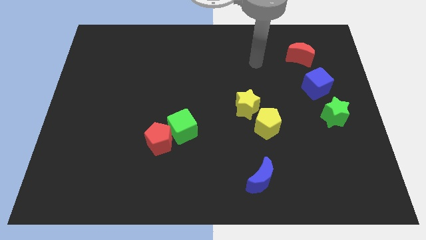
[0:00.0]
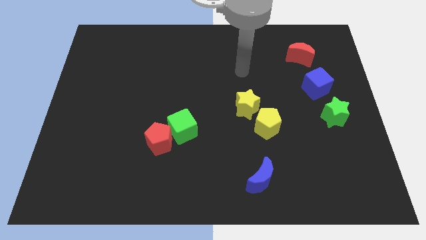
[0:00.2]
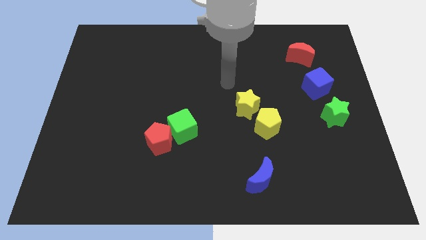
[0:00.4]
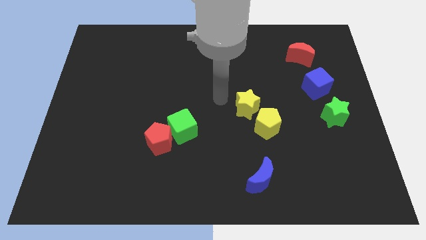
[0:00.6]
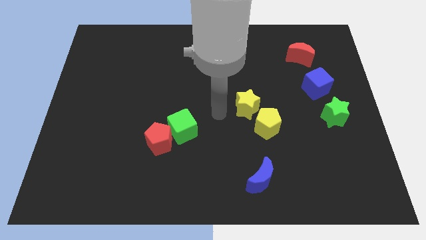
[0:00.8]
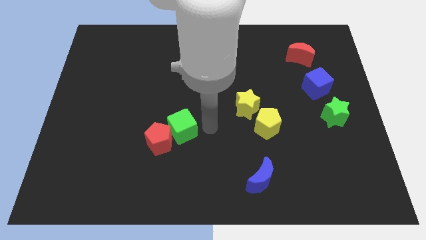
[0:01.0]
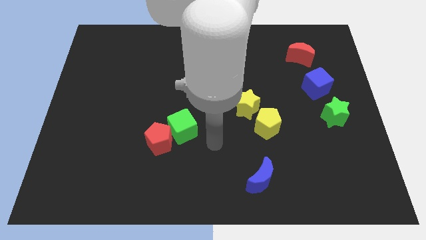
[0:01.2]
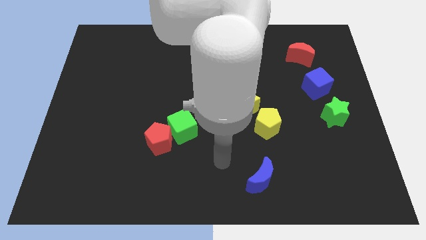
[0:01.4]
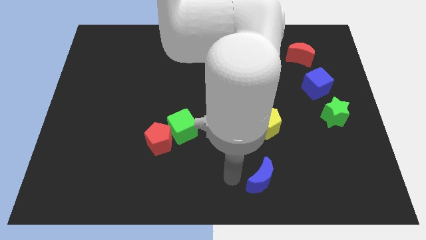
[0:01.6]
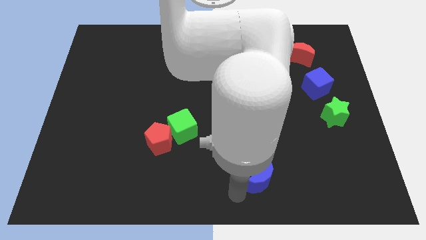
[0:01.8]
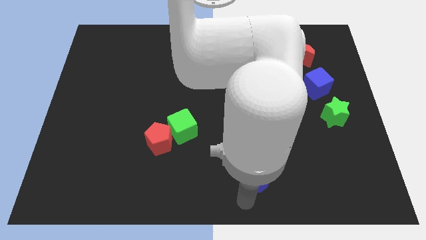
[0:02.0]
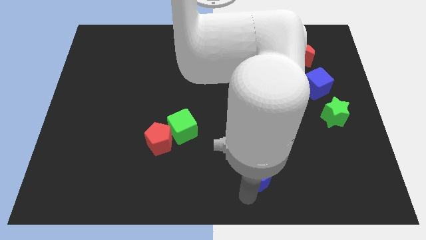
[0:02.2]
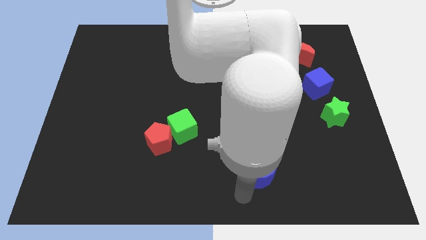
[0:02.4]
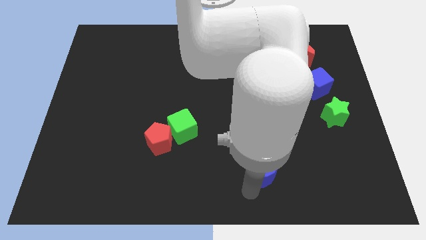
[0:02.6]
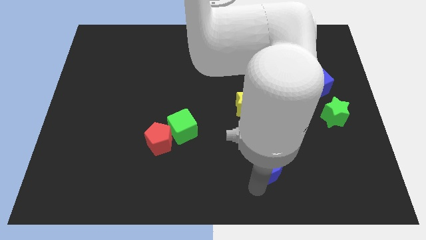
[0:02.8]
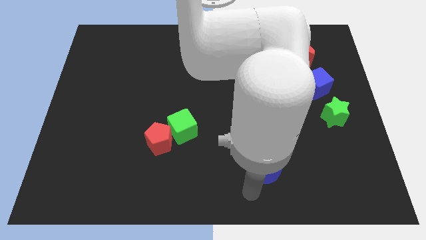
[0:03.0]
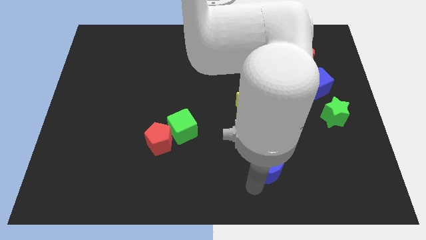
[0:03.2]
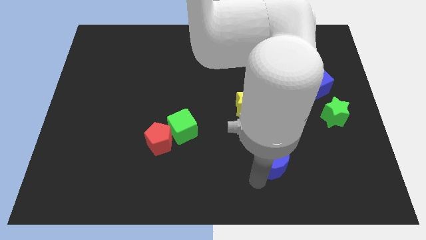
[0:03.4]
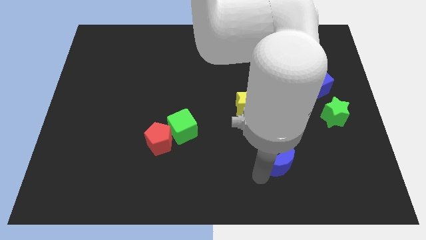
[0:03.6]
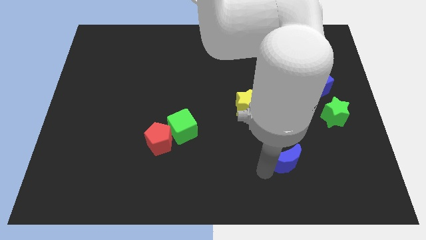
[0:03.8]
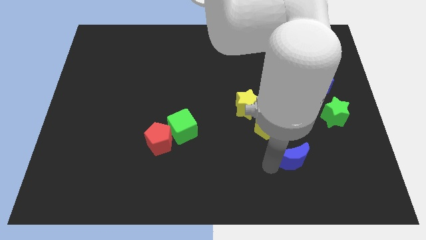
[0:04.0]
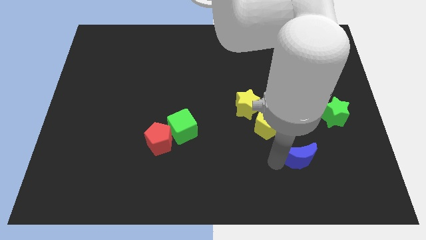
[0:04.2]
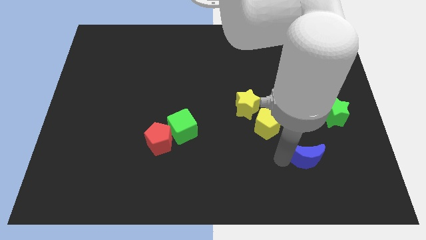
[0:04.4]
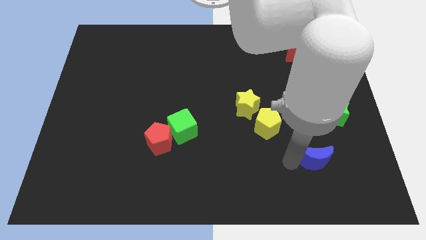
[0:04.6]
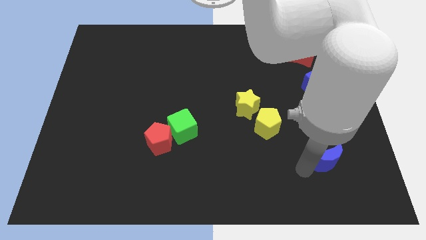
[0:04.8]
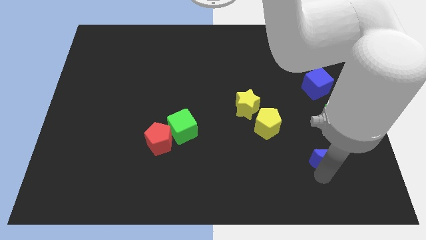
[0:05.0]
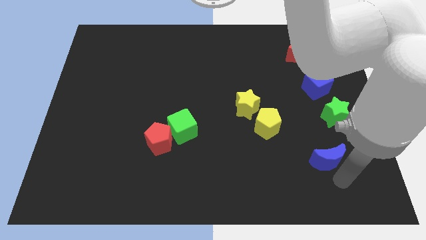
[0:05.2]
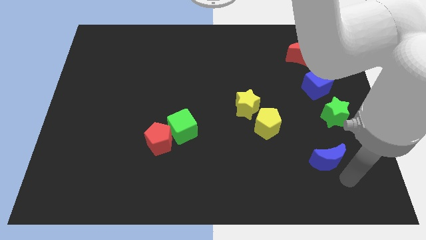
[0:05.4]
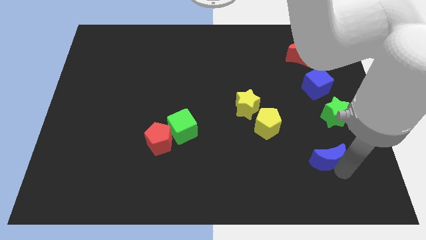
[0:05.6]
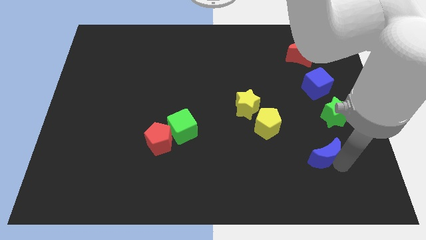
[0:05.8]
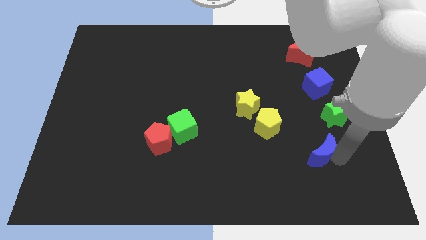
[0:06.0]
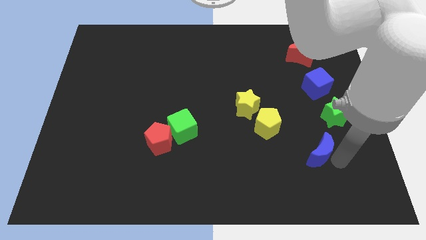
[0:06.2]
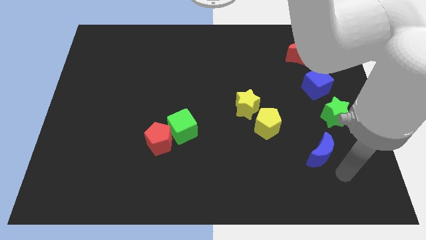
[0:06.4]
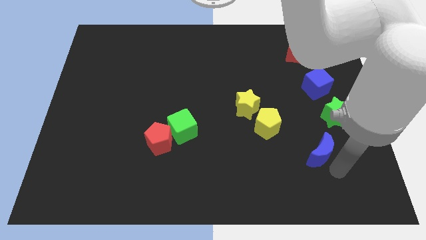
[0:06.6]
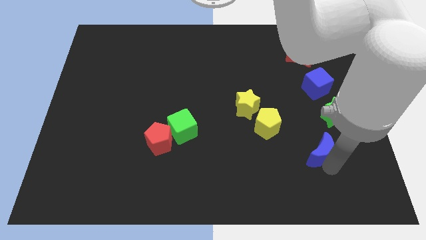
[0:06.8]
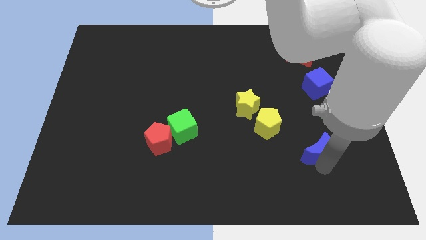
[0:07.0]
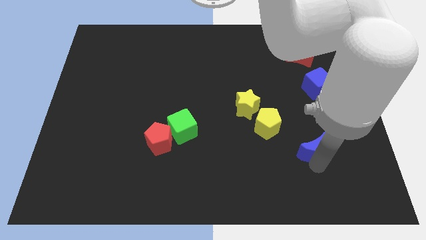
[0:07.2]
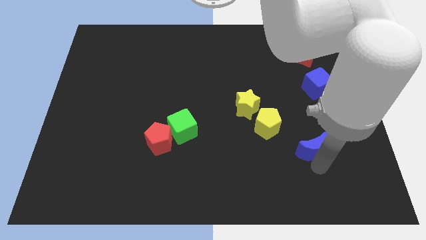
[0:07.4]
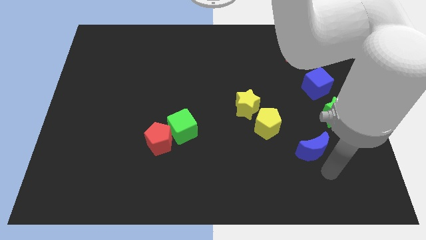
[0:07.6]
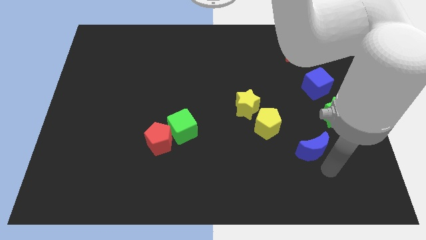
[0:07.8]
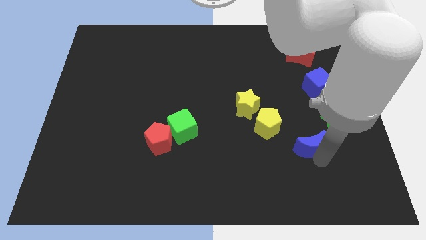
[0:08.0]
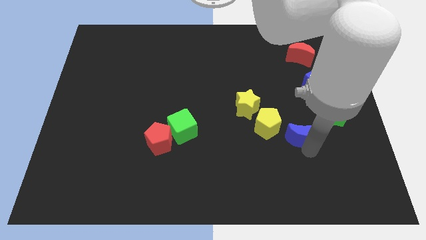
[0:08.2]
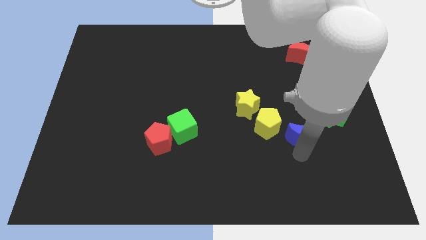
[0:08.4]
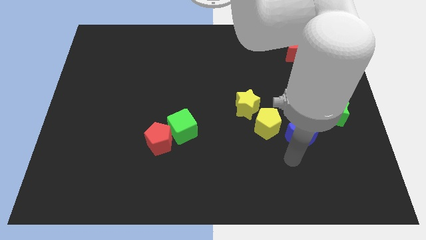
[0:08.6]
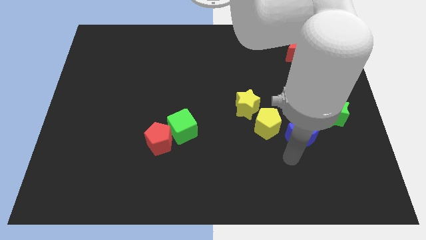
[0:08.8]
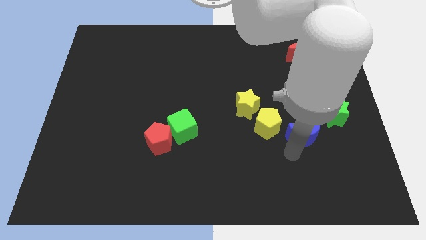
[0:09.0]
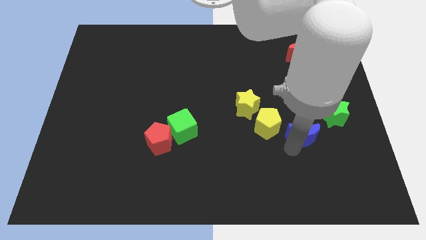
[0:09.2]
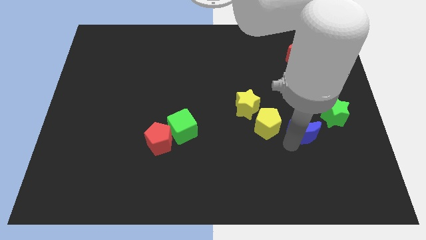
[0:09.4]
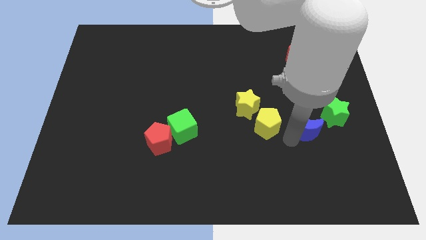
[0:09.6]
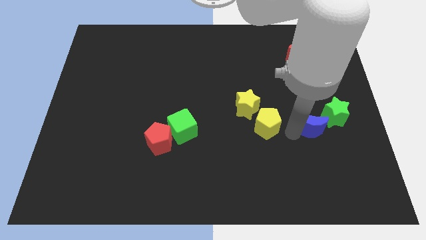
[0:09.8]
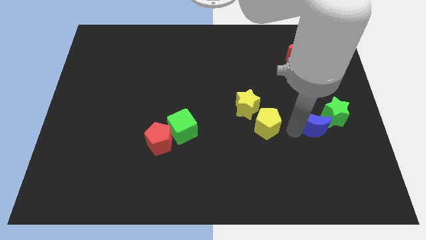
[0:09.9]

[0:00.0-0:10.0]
push the blue moon next to the green star

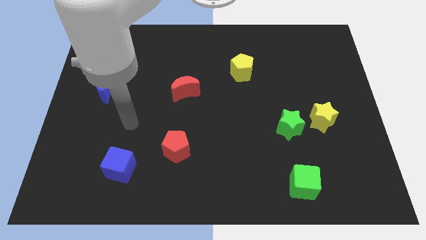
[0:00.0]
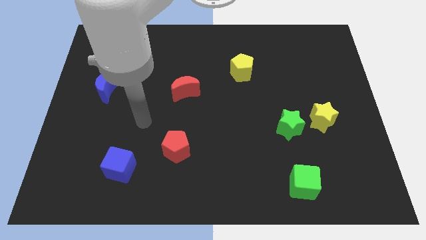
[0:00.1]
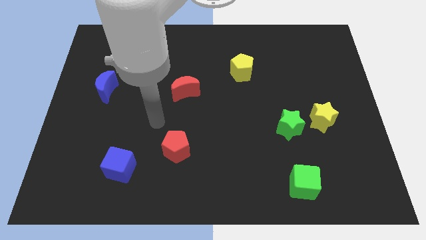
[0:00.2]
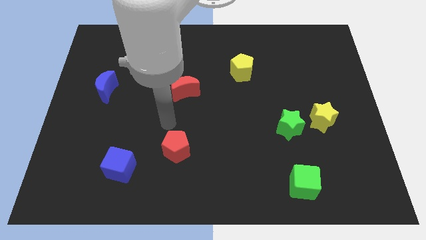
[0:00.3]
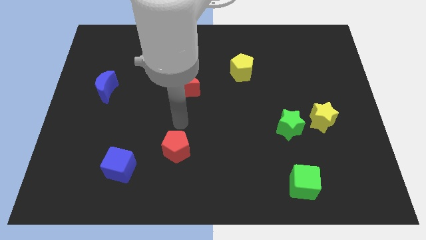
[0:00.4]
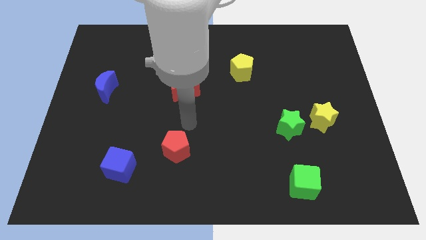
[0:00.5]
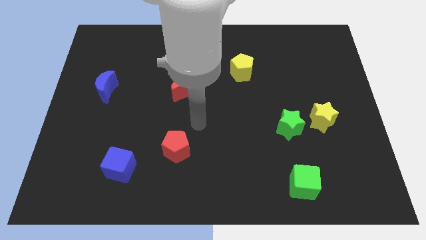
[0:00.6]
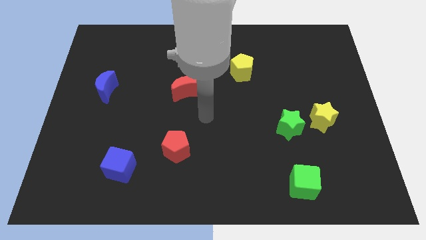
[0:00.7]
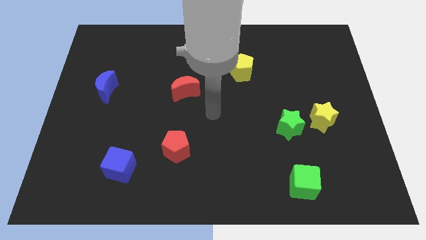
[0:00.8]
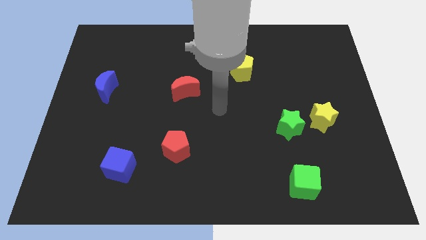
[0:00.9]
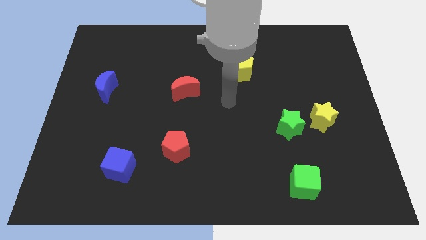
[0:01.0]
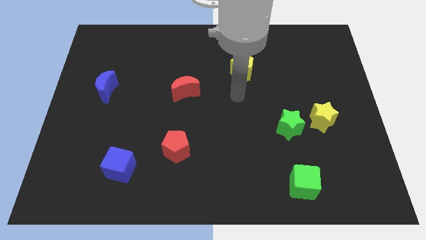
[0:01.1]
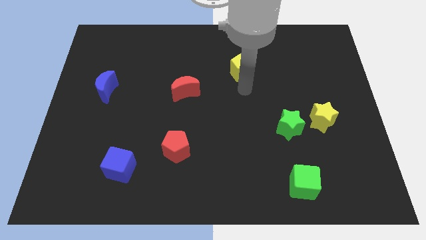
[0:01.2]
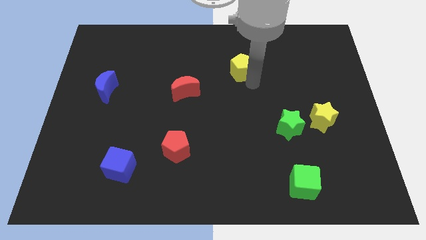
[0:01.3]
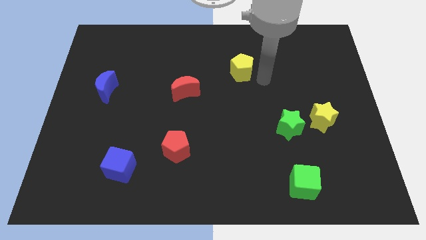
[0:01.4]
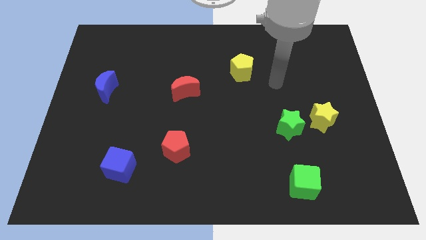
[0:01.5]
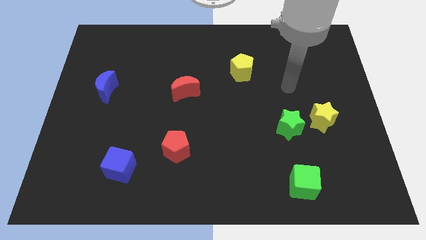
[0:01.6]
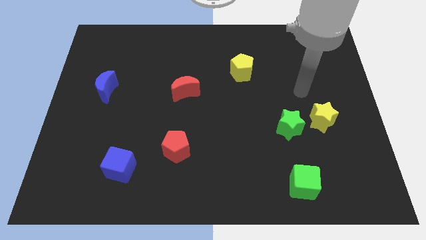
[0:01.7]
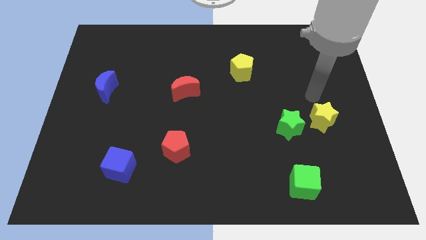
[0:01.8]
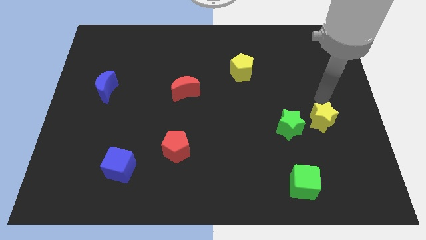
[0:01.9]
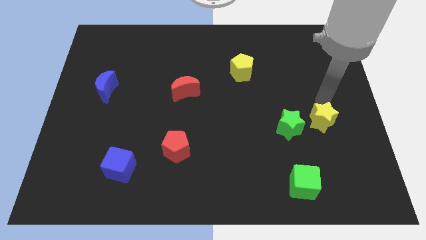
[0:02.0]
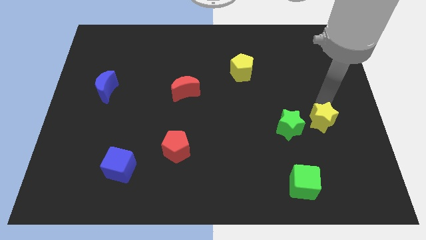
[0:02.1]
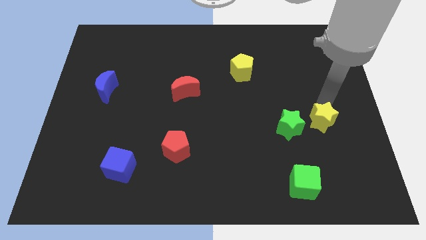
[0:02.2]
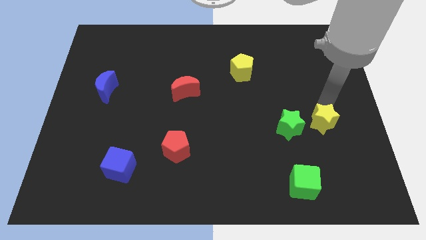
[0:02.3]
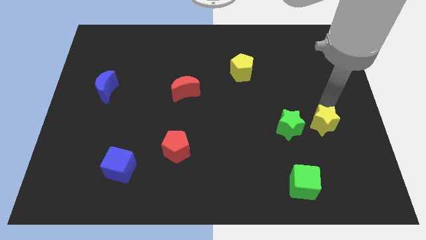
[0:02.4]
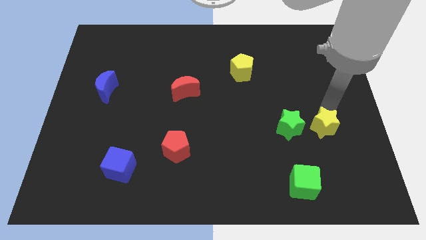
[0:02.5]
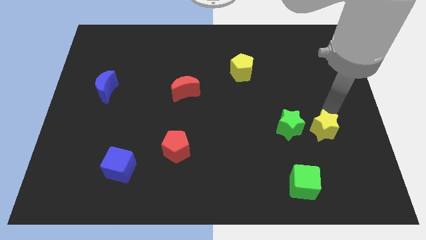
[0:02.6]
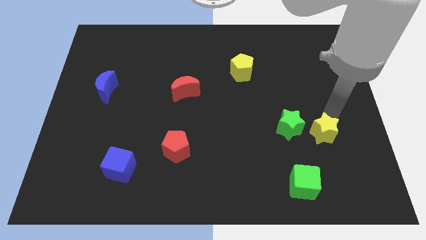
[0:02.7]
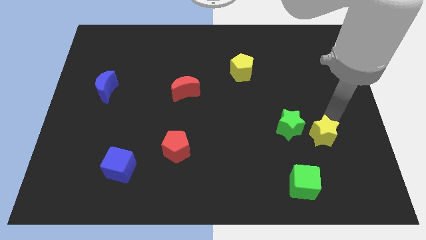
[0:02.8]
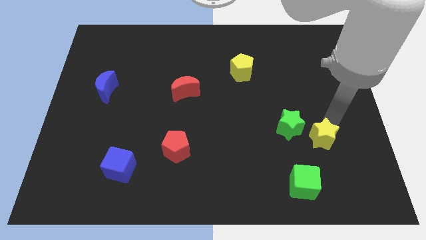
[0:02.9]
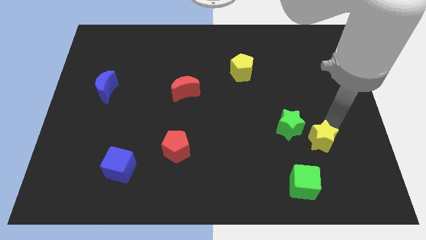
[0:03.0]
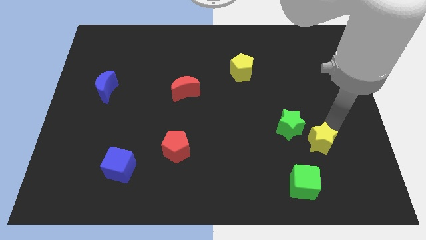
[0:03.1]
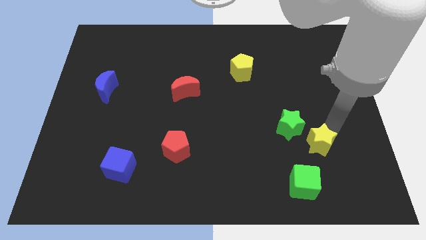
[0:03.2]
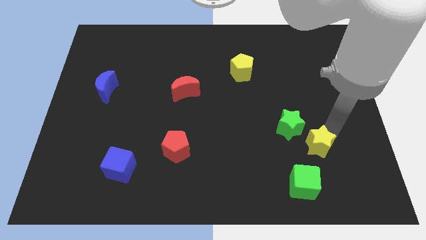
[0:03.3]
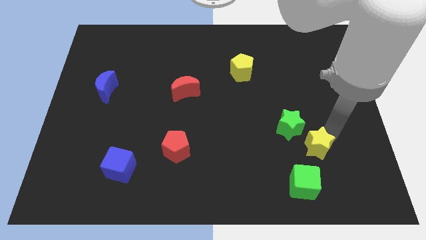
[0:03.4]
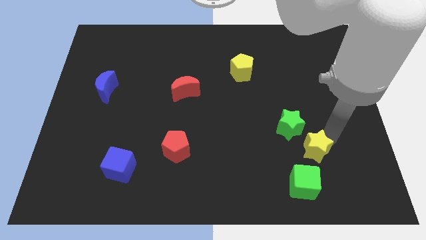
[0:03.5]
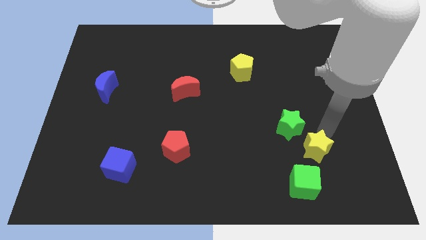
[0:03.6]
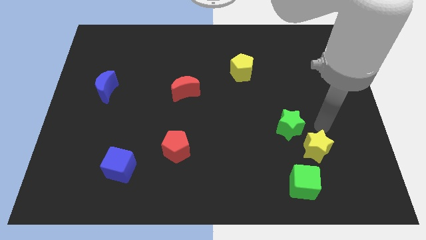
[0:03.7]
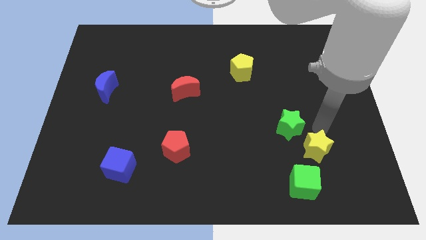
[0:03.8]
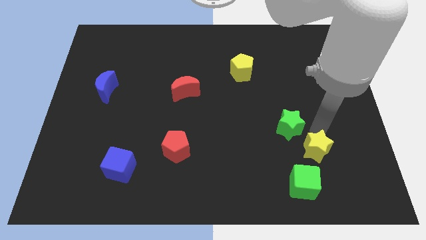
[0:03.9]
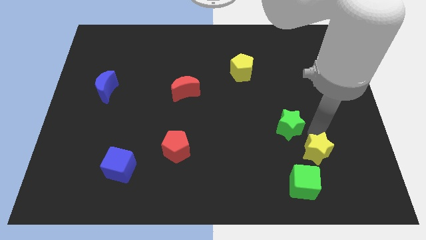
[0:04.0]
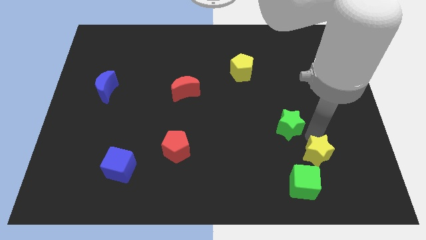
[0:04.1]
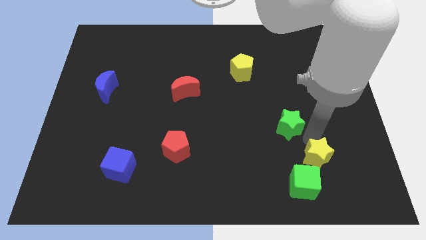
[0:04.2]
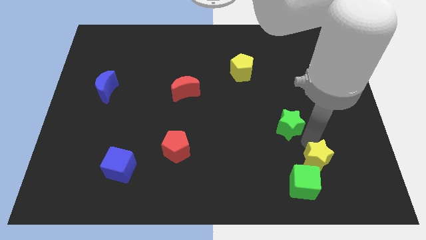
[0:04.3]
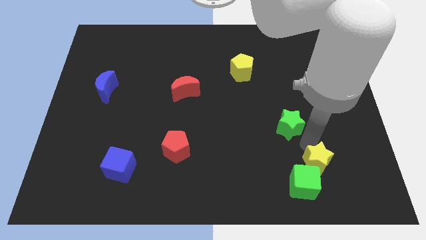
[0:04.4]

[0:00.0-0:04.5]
slide the yellow star towards the green cube
